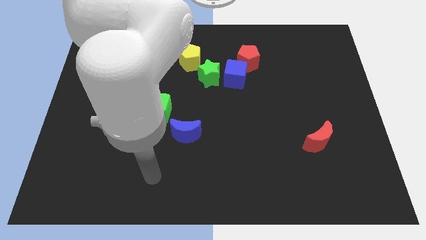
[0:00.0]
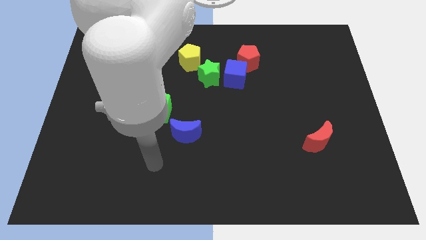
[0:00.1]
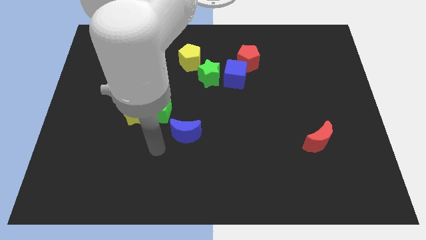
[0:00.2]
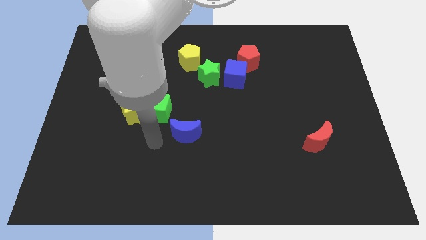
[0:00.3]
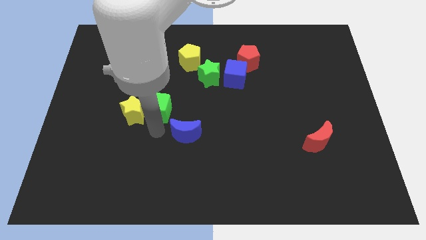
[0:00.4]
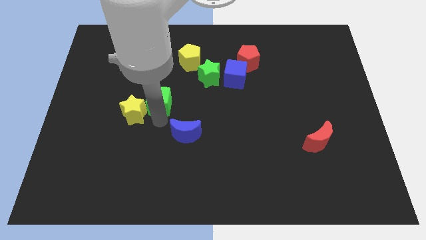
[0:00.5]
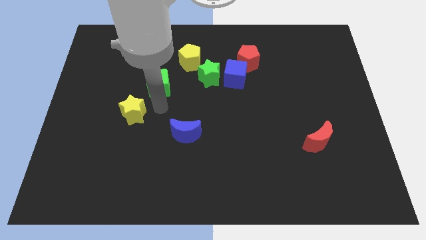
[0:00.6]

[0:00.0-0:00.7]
move the yellow star away from the green cube

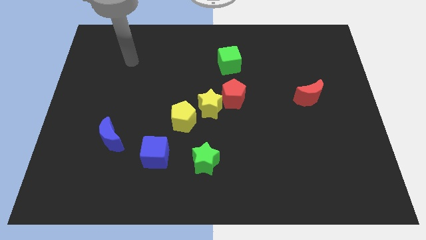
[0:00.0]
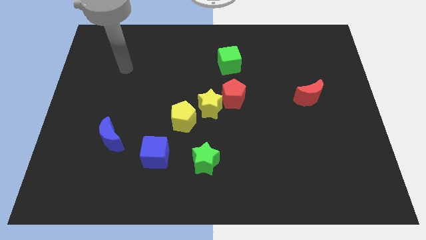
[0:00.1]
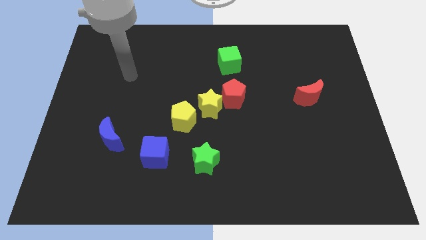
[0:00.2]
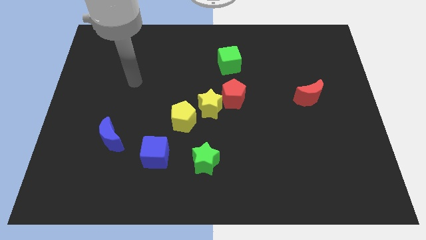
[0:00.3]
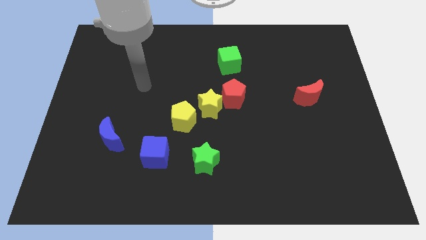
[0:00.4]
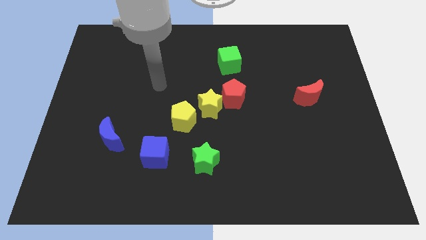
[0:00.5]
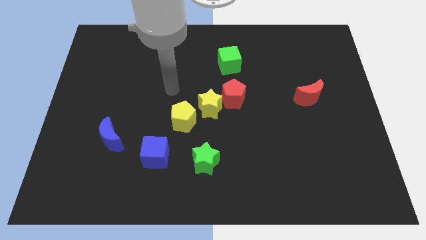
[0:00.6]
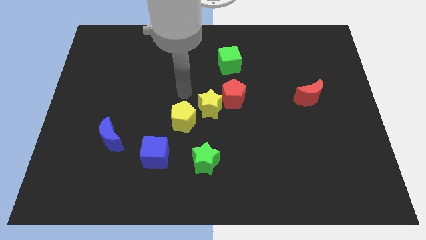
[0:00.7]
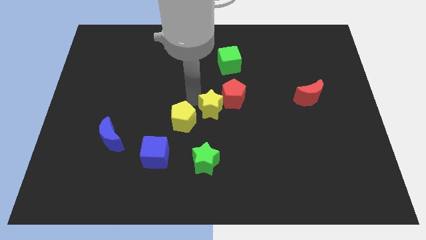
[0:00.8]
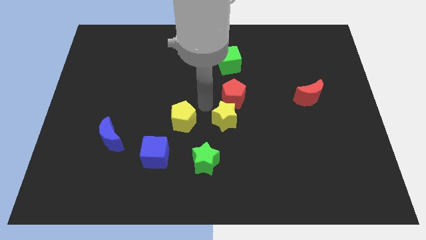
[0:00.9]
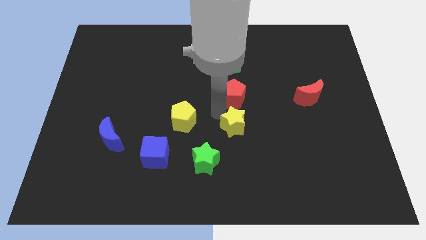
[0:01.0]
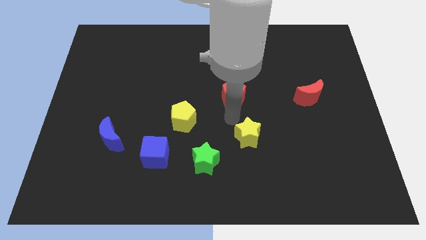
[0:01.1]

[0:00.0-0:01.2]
move the red pentagon away from the yellow star

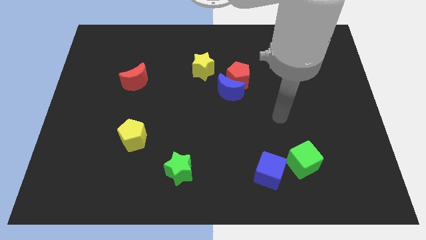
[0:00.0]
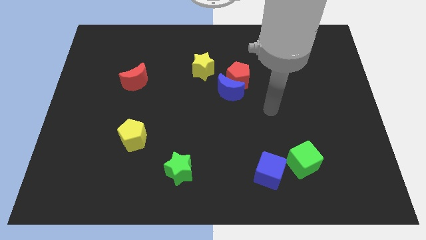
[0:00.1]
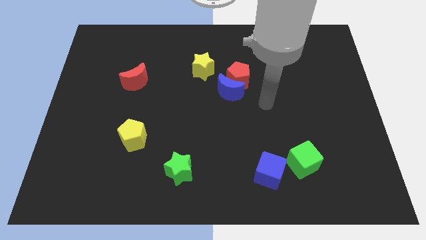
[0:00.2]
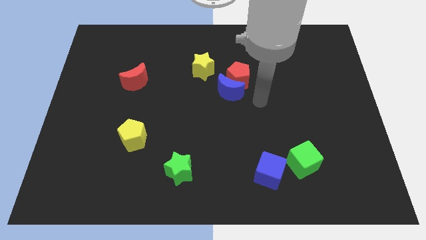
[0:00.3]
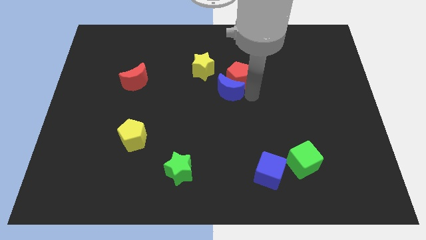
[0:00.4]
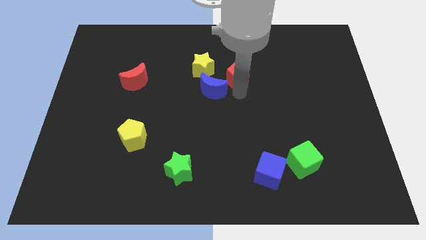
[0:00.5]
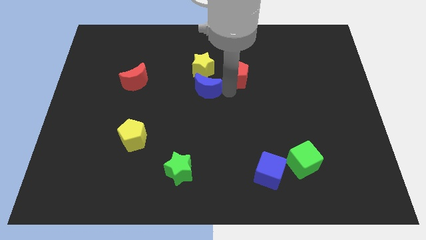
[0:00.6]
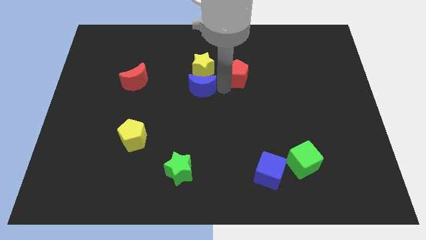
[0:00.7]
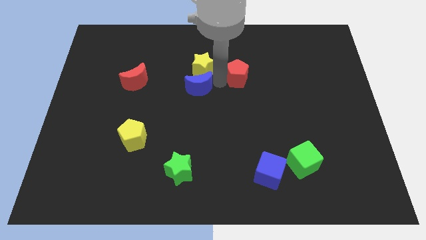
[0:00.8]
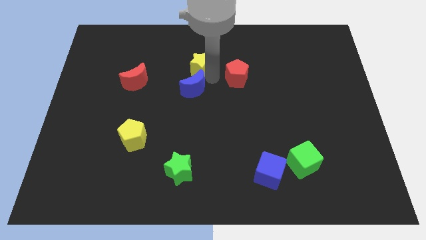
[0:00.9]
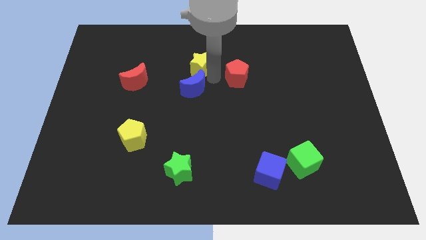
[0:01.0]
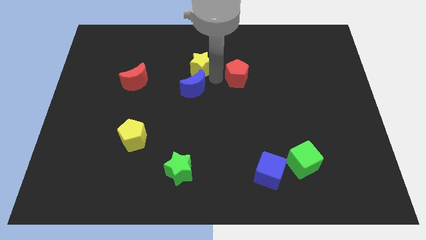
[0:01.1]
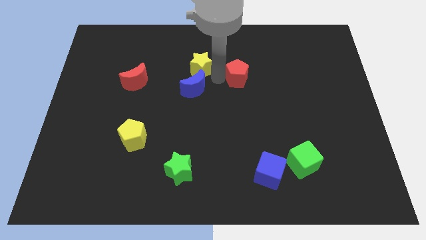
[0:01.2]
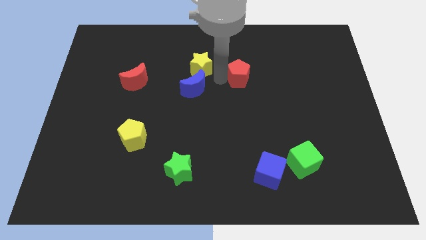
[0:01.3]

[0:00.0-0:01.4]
separate the red pentagon from the blue moon and yellow star

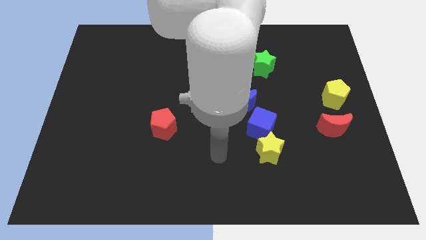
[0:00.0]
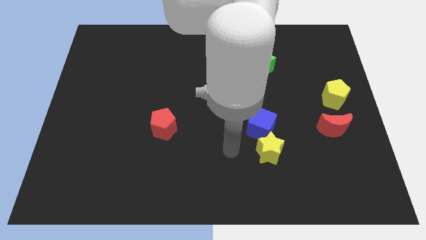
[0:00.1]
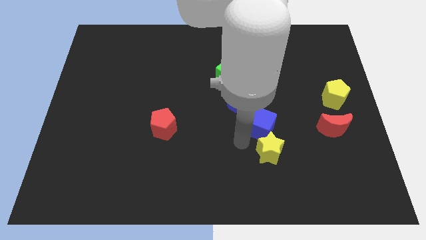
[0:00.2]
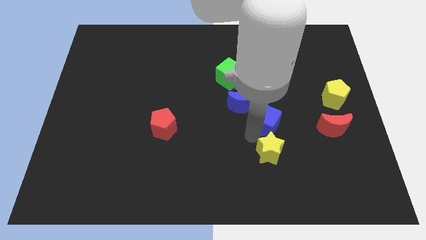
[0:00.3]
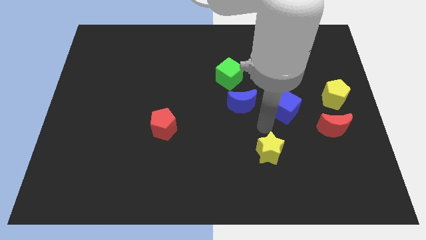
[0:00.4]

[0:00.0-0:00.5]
pull the yellow star apart from the blue cube

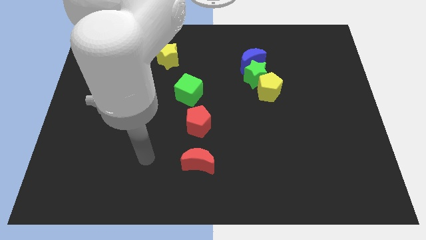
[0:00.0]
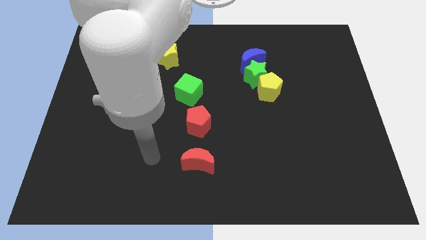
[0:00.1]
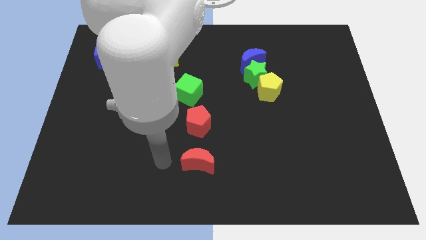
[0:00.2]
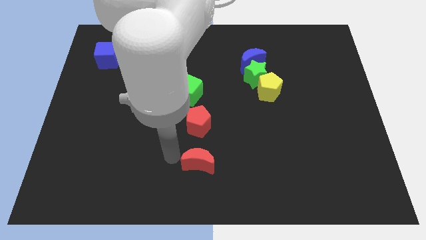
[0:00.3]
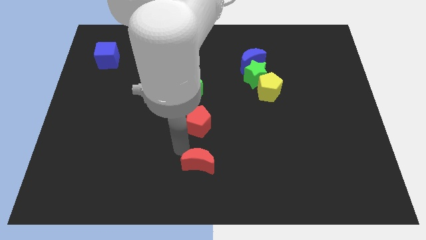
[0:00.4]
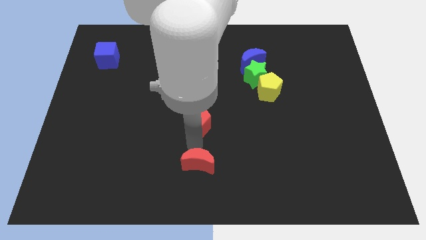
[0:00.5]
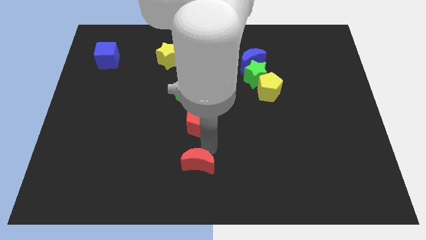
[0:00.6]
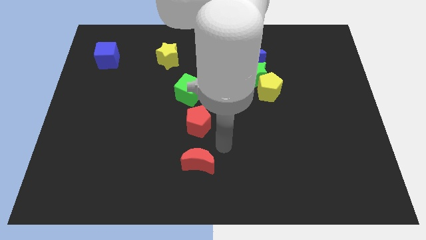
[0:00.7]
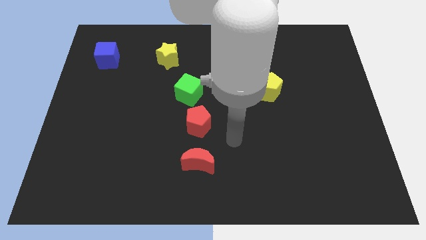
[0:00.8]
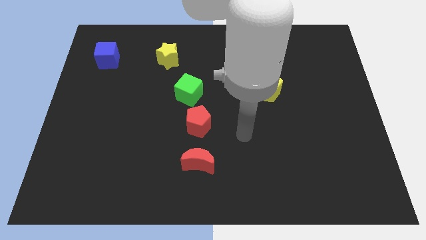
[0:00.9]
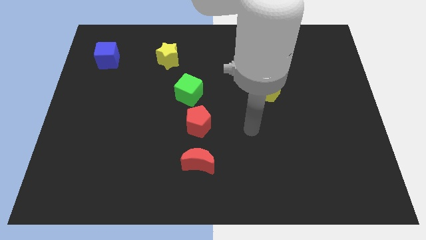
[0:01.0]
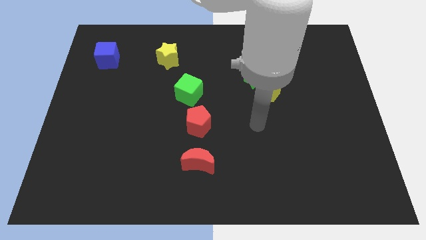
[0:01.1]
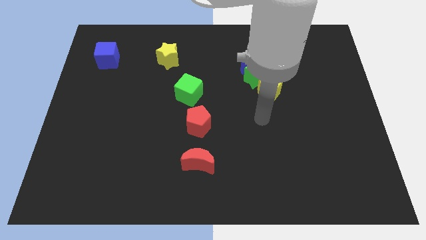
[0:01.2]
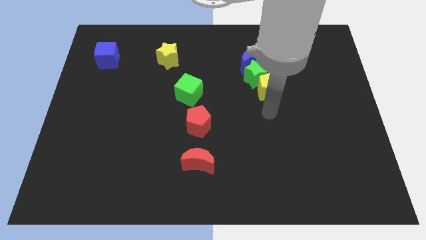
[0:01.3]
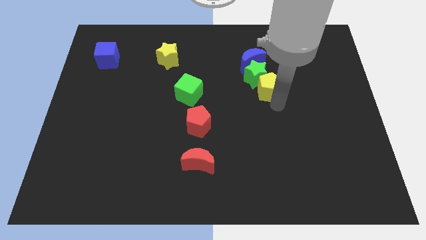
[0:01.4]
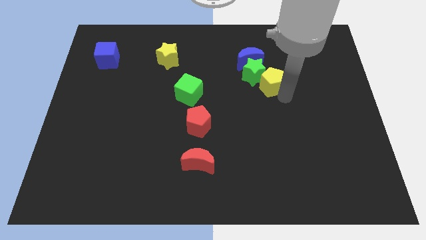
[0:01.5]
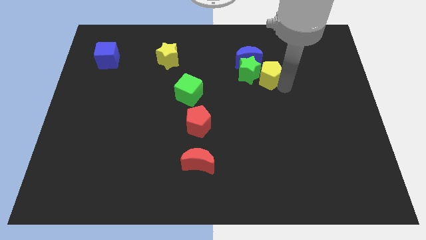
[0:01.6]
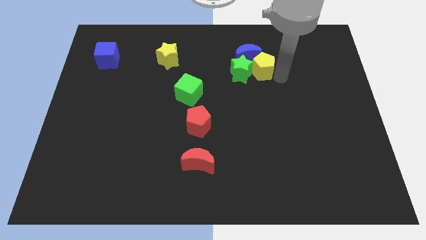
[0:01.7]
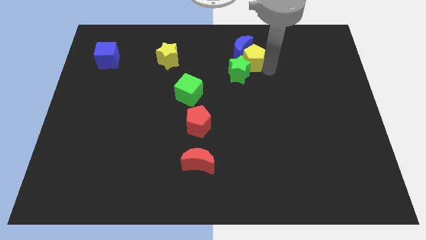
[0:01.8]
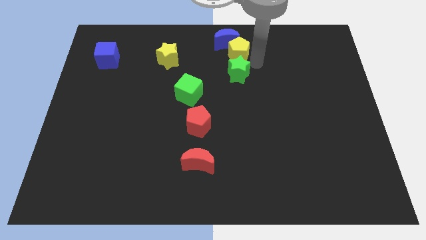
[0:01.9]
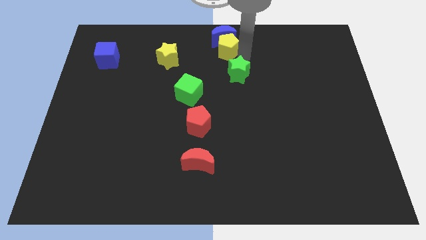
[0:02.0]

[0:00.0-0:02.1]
pull the green star apart from the yellow pentagon and blue moon

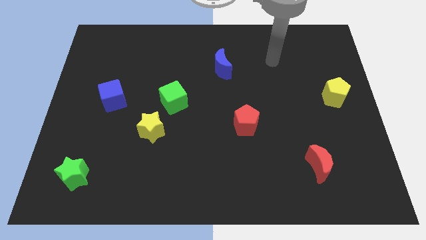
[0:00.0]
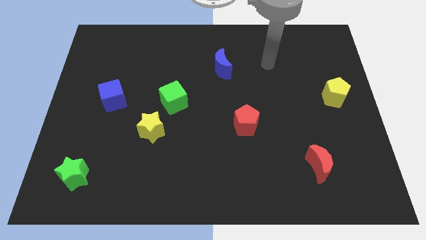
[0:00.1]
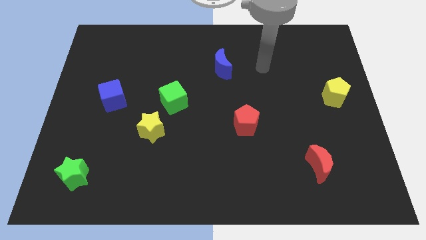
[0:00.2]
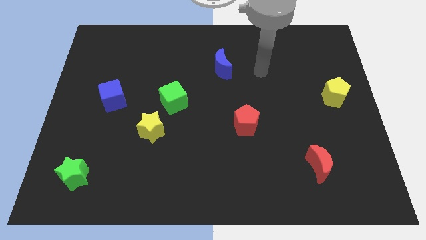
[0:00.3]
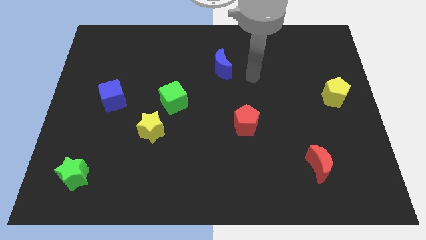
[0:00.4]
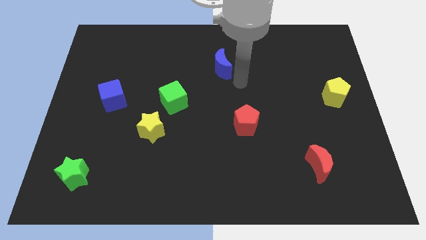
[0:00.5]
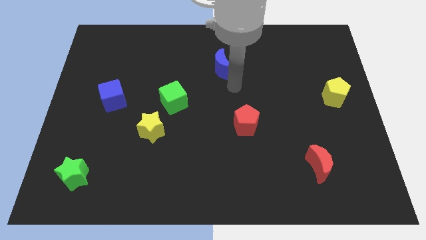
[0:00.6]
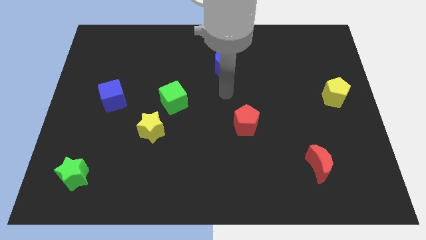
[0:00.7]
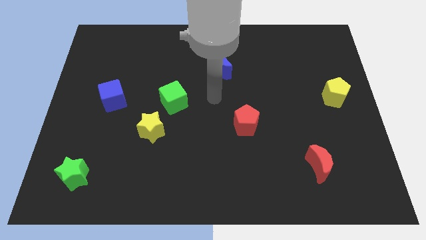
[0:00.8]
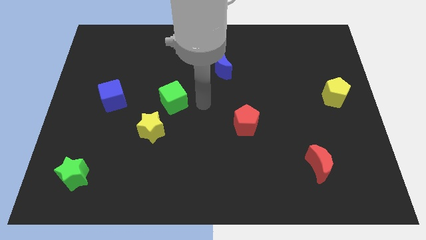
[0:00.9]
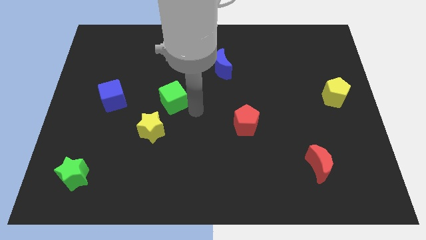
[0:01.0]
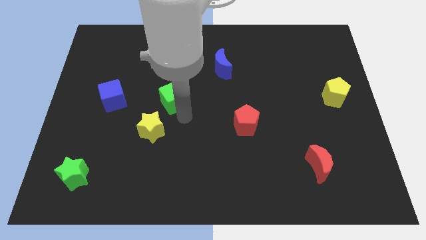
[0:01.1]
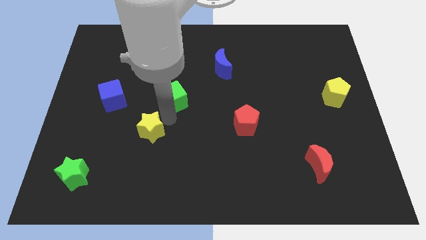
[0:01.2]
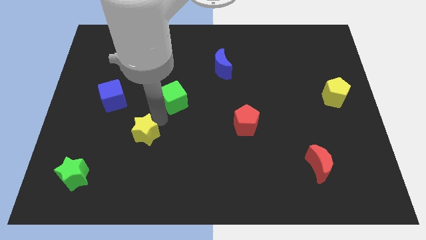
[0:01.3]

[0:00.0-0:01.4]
separate the green cube from the yellow star

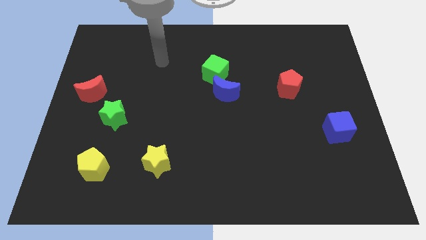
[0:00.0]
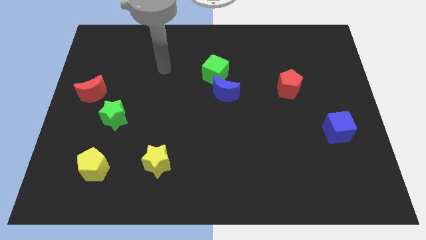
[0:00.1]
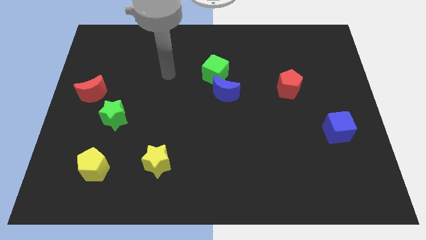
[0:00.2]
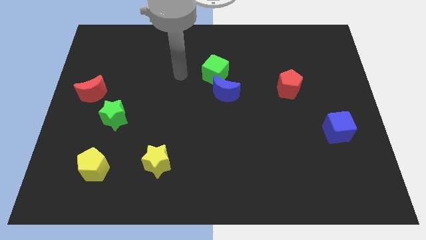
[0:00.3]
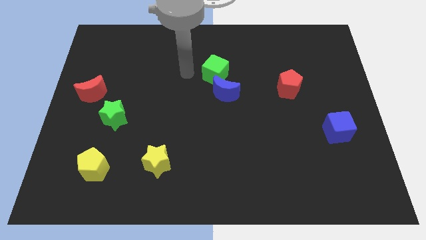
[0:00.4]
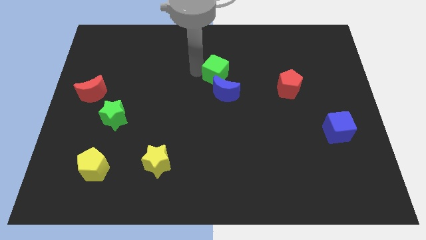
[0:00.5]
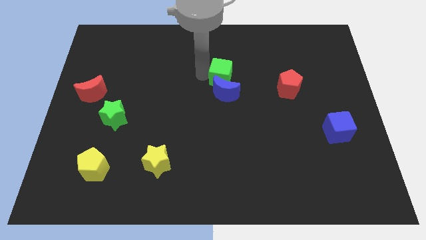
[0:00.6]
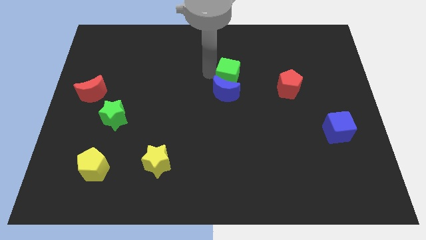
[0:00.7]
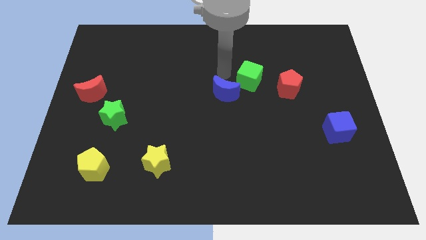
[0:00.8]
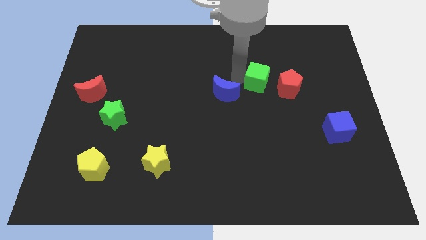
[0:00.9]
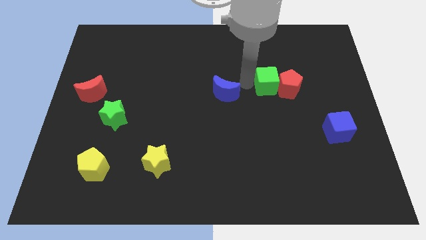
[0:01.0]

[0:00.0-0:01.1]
move the blue moon away from the green cube

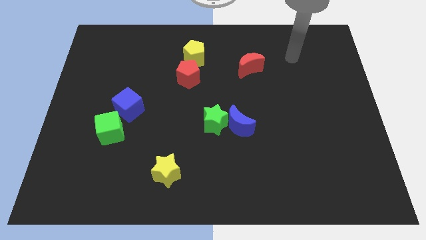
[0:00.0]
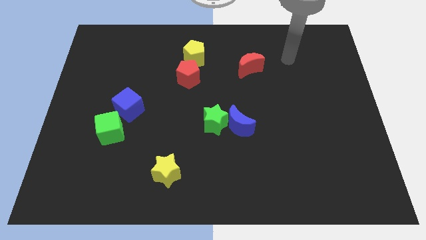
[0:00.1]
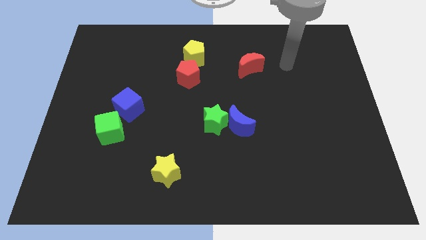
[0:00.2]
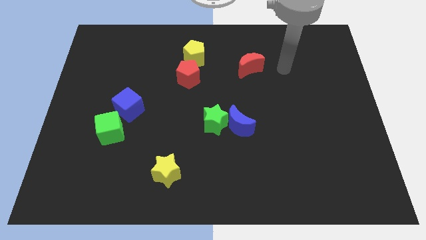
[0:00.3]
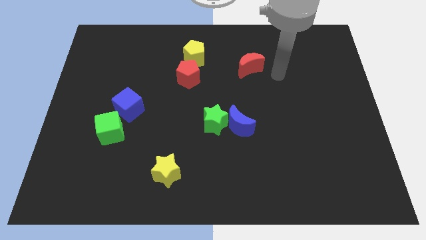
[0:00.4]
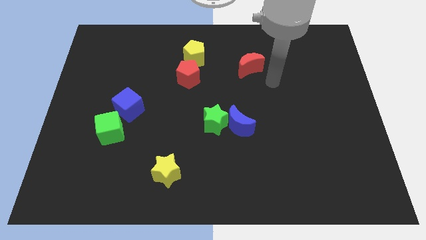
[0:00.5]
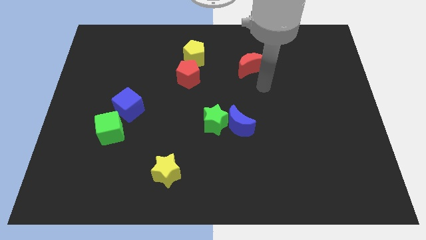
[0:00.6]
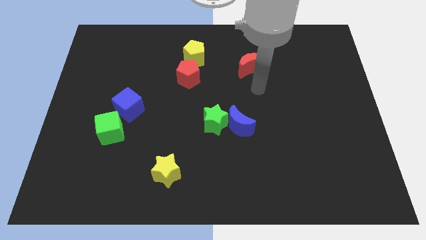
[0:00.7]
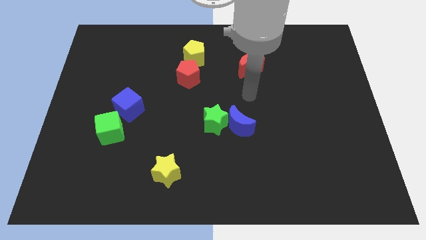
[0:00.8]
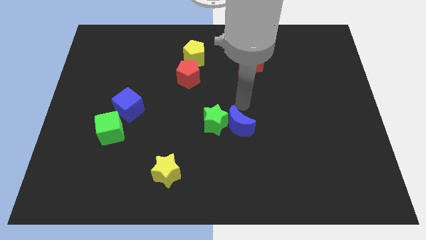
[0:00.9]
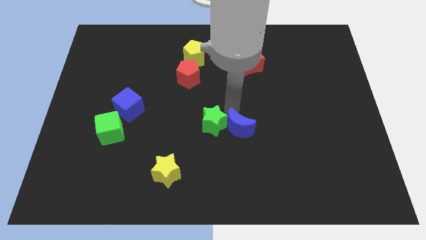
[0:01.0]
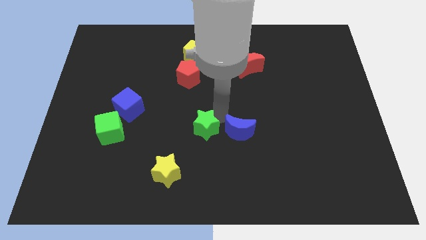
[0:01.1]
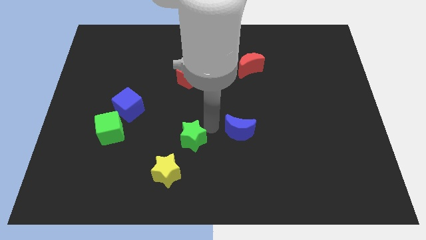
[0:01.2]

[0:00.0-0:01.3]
separate the blue moon from the green star
